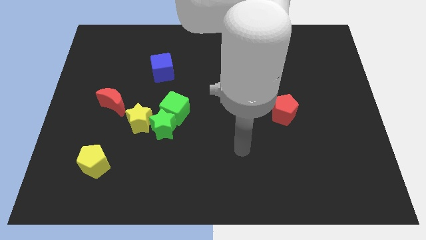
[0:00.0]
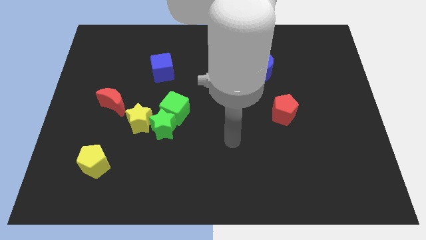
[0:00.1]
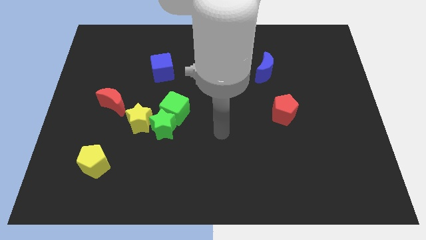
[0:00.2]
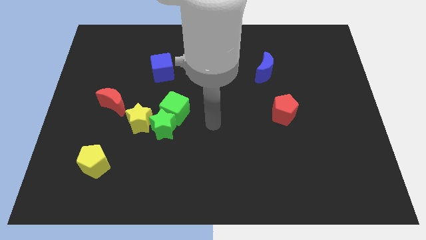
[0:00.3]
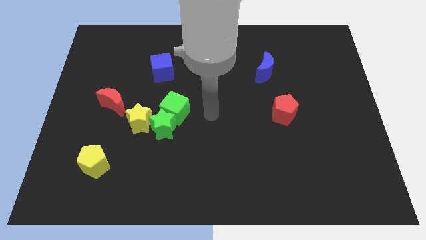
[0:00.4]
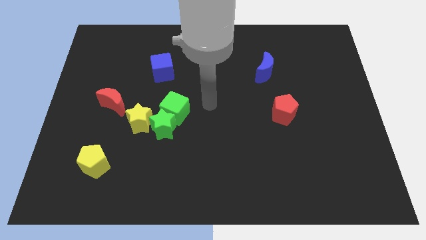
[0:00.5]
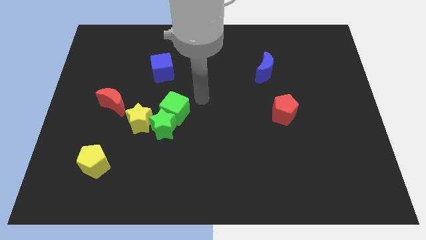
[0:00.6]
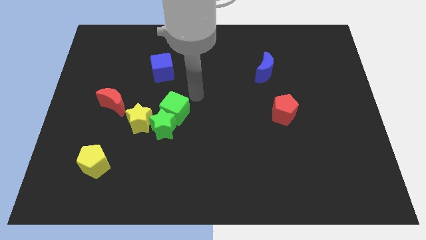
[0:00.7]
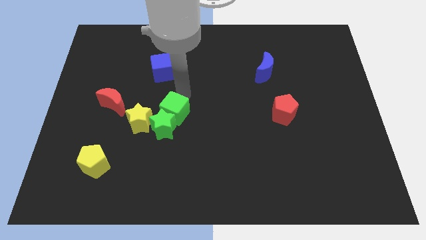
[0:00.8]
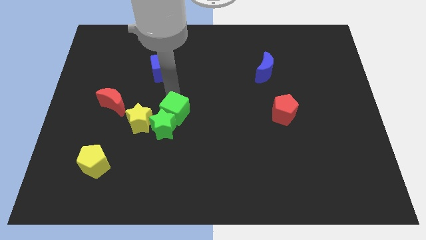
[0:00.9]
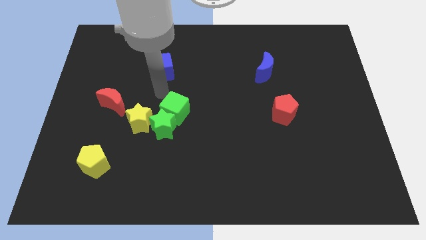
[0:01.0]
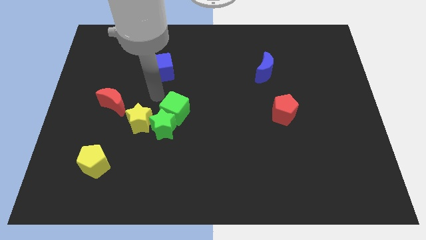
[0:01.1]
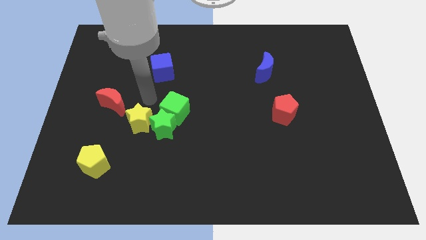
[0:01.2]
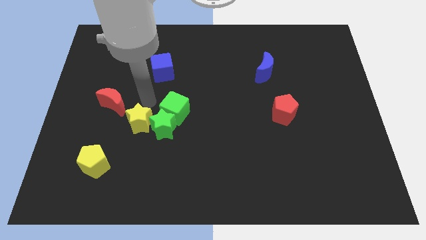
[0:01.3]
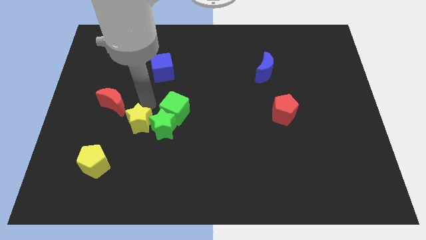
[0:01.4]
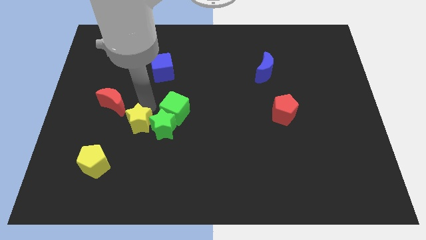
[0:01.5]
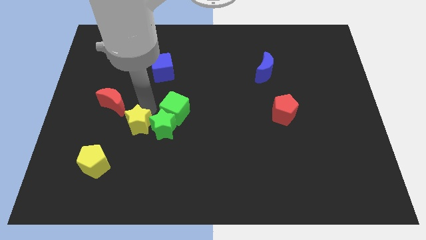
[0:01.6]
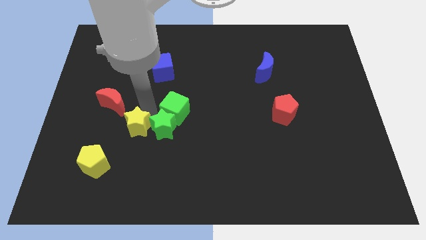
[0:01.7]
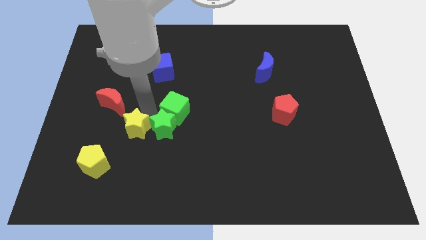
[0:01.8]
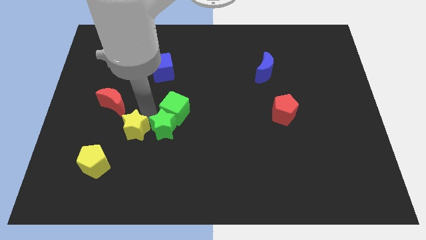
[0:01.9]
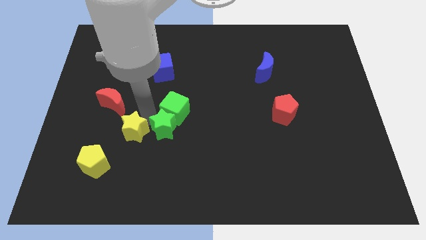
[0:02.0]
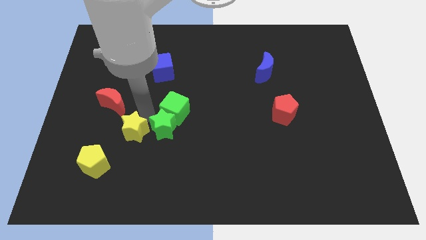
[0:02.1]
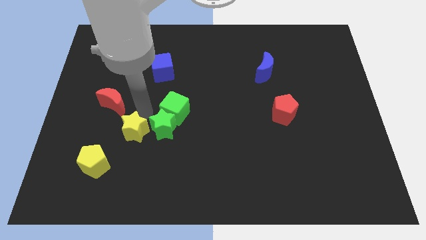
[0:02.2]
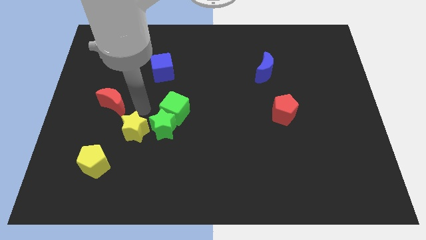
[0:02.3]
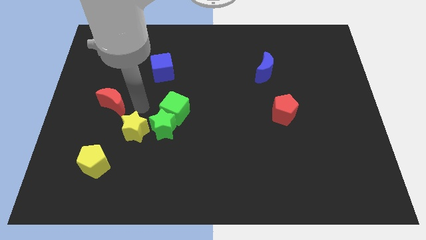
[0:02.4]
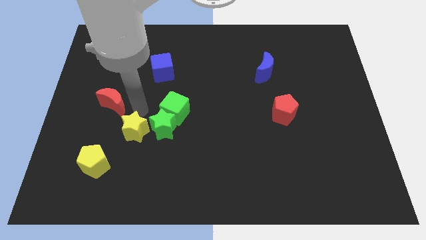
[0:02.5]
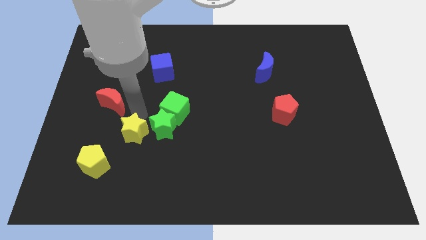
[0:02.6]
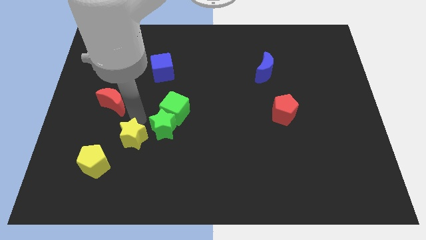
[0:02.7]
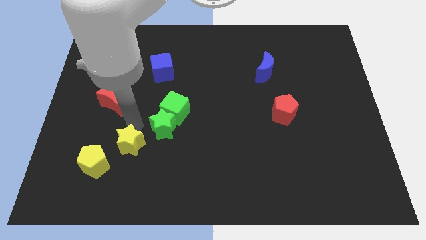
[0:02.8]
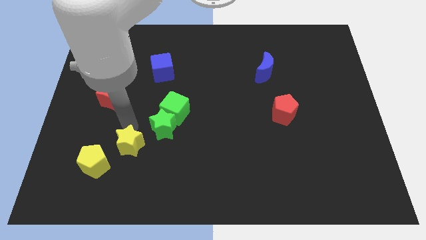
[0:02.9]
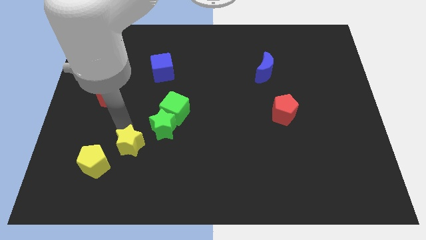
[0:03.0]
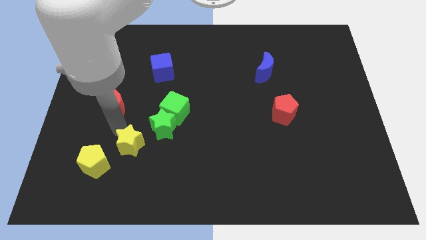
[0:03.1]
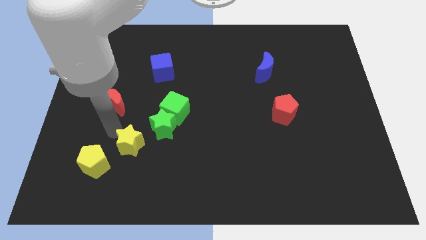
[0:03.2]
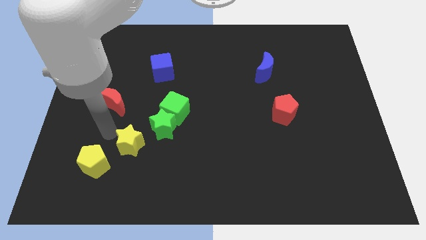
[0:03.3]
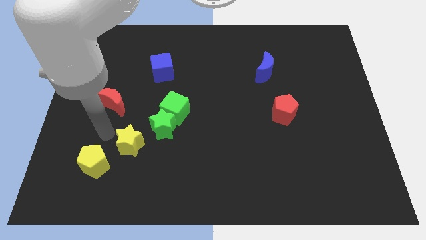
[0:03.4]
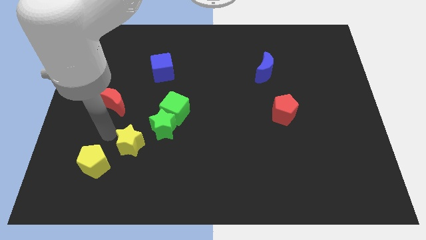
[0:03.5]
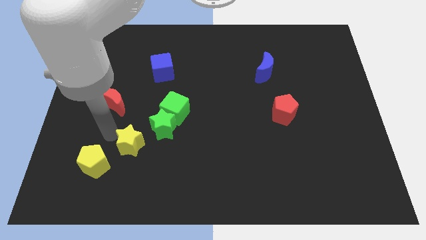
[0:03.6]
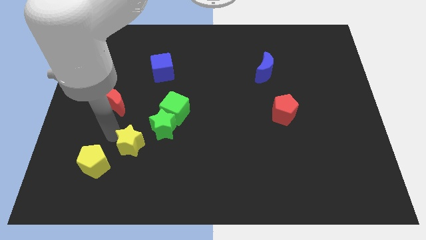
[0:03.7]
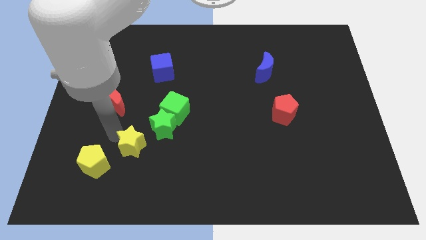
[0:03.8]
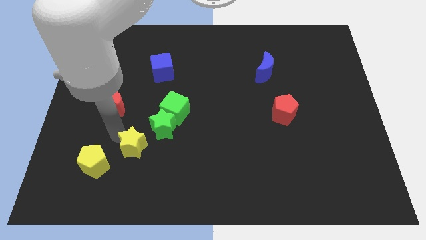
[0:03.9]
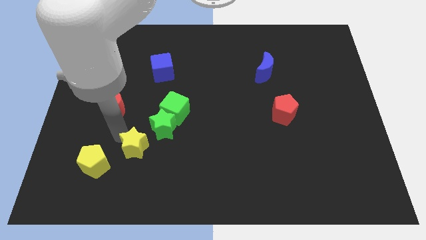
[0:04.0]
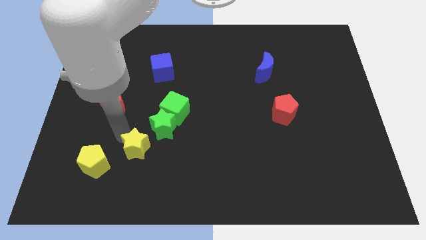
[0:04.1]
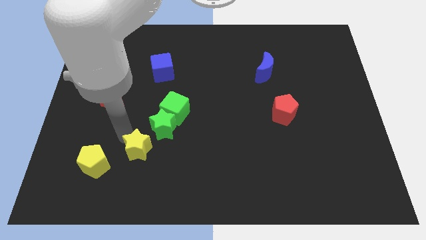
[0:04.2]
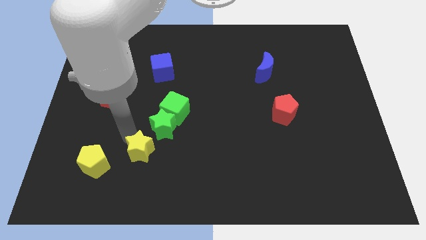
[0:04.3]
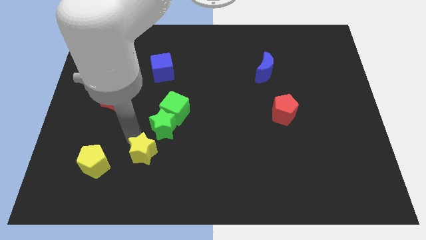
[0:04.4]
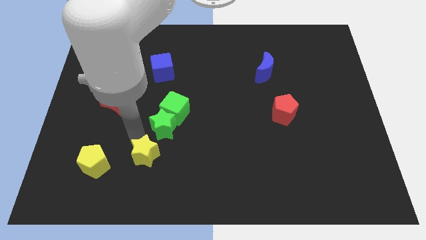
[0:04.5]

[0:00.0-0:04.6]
slide the yellow star slightly down and then to the right

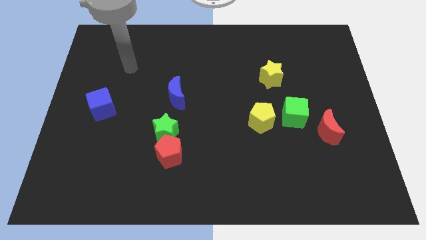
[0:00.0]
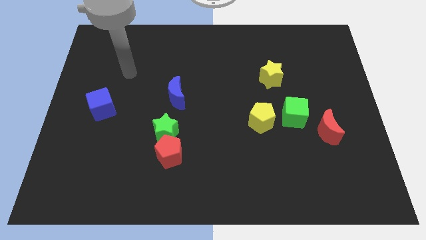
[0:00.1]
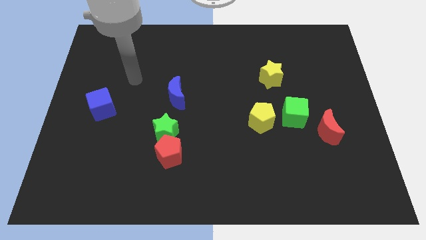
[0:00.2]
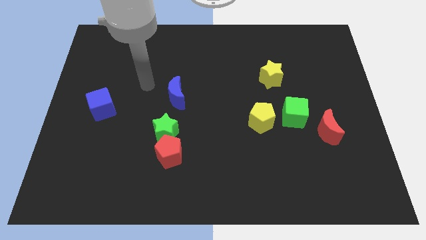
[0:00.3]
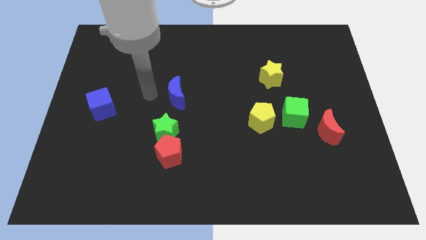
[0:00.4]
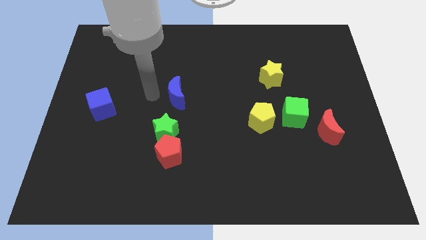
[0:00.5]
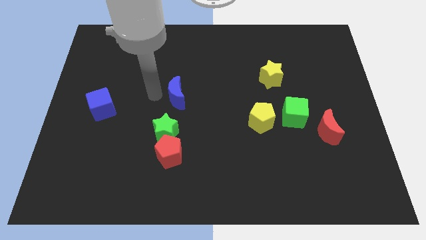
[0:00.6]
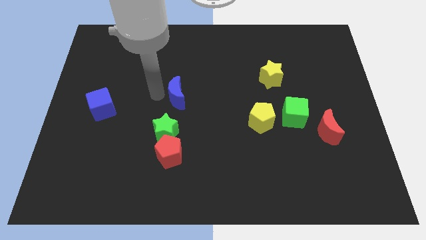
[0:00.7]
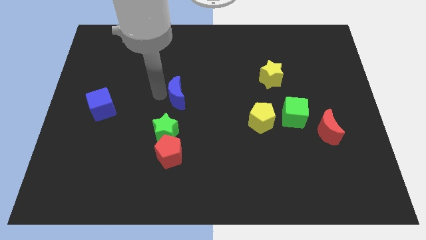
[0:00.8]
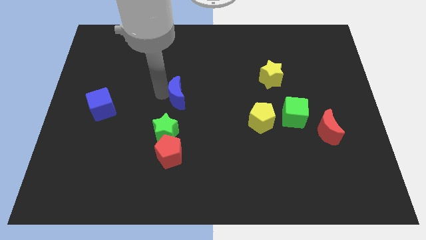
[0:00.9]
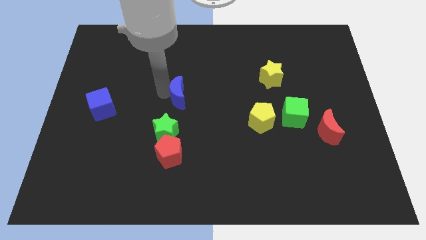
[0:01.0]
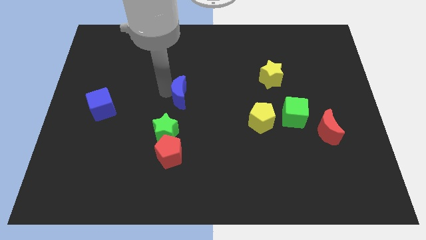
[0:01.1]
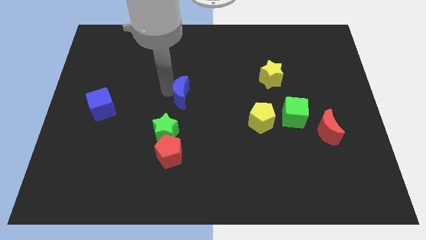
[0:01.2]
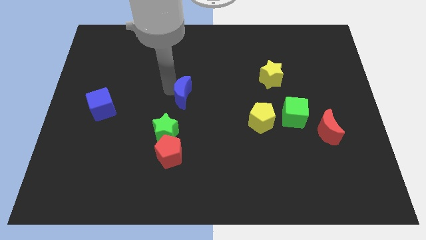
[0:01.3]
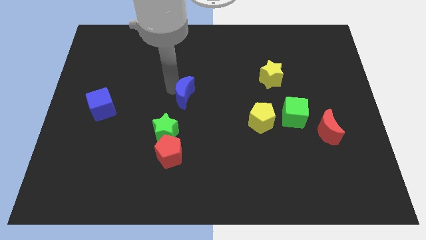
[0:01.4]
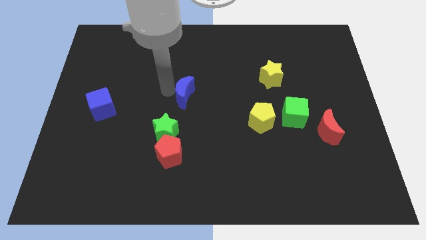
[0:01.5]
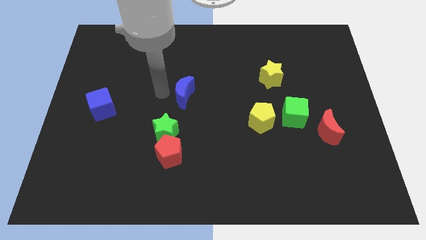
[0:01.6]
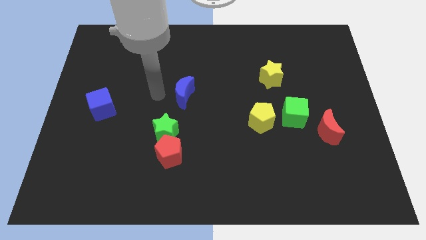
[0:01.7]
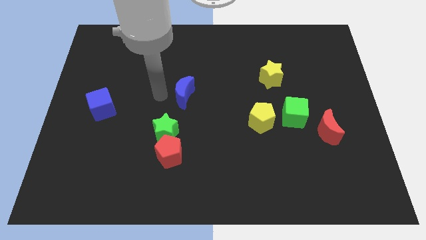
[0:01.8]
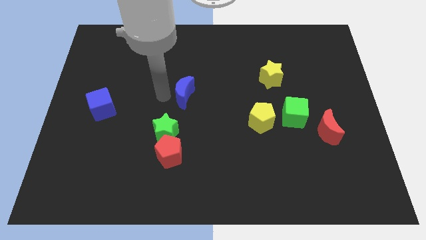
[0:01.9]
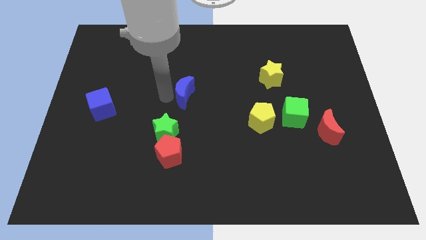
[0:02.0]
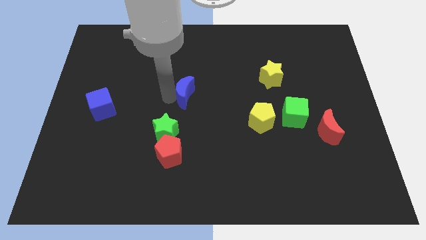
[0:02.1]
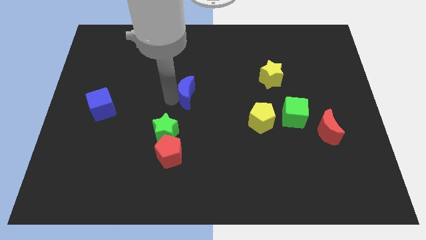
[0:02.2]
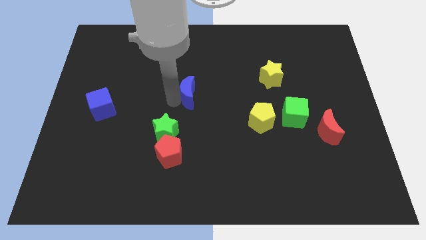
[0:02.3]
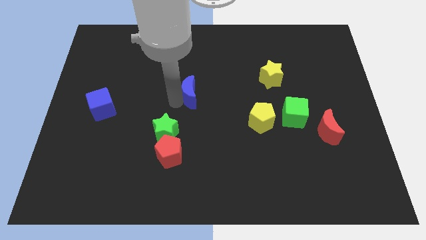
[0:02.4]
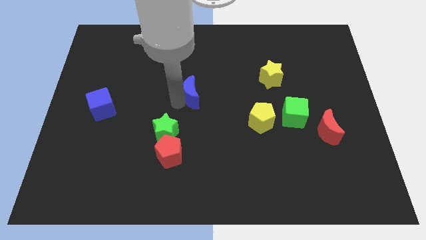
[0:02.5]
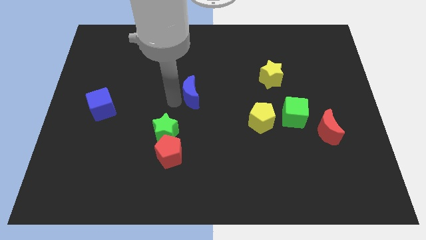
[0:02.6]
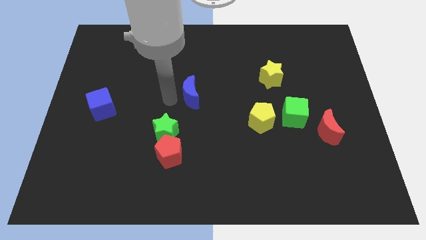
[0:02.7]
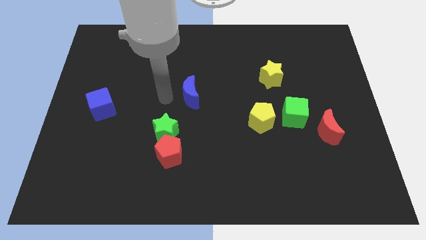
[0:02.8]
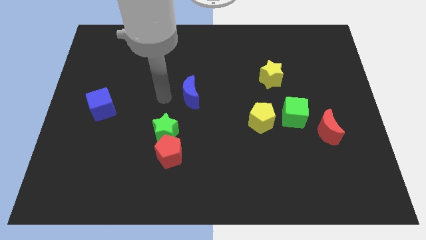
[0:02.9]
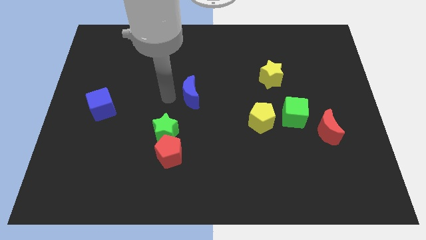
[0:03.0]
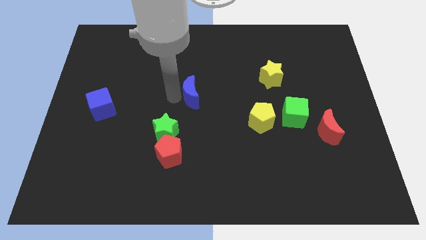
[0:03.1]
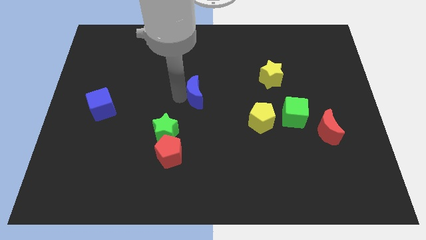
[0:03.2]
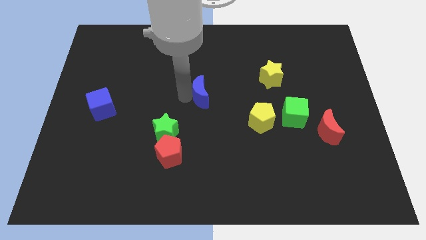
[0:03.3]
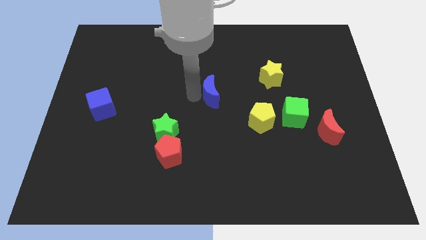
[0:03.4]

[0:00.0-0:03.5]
slightly push the blue moon to the right
